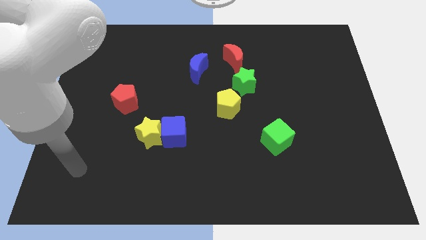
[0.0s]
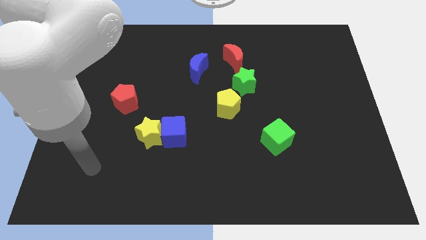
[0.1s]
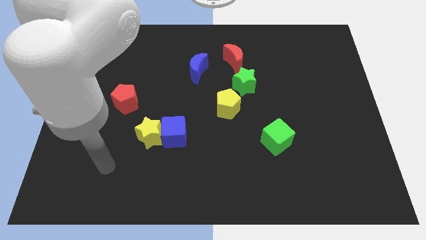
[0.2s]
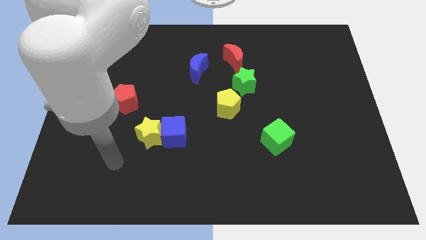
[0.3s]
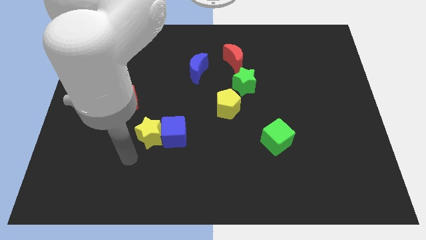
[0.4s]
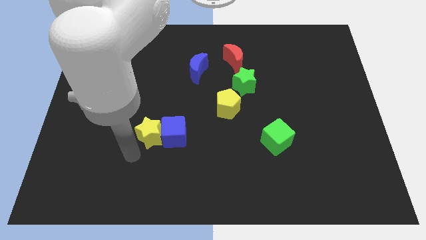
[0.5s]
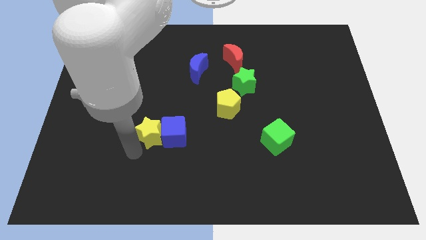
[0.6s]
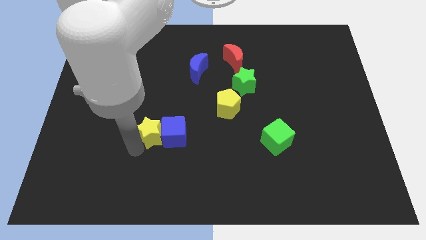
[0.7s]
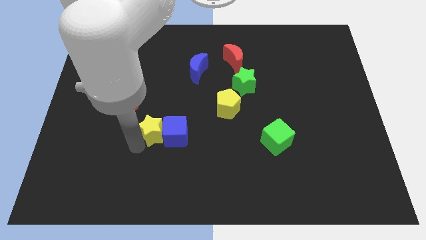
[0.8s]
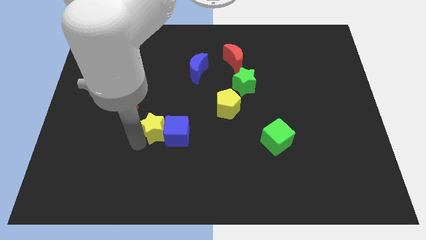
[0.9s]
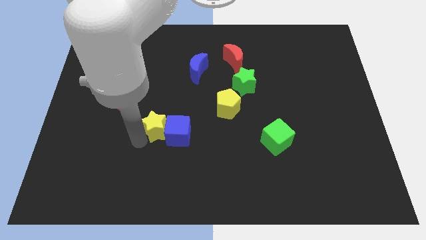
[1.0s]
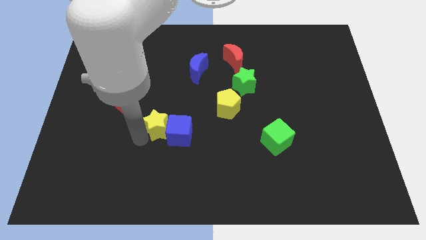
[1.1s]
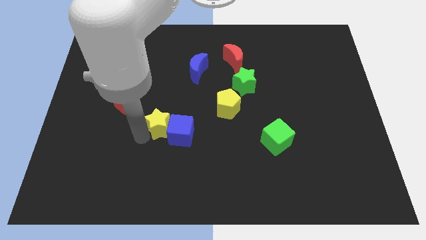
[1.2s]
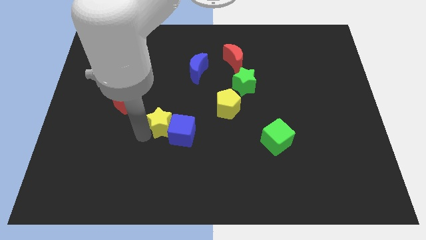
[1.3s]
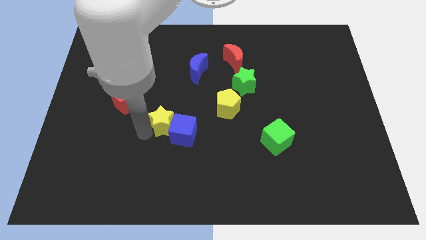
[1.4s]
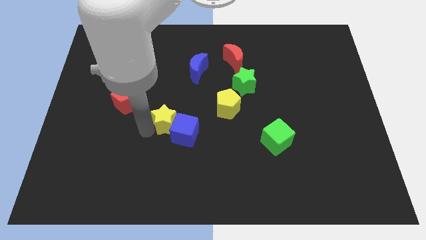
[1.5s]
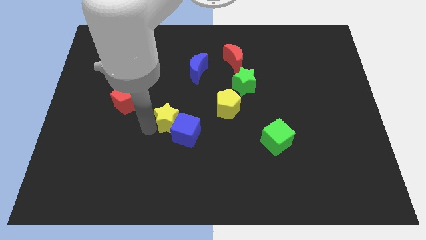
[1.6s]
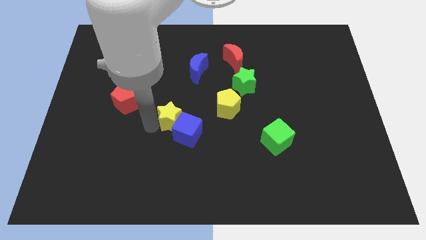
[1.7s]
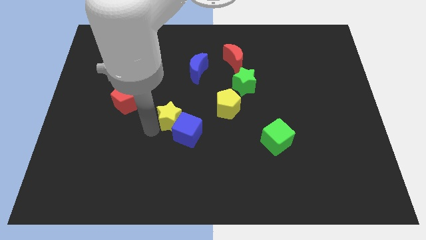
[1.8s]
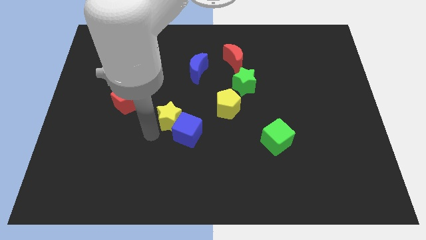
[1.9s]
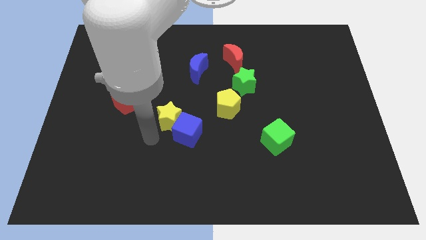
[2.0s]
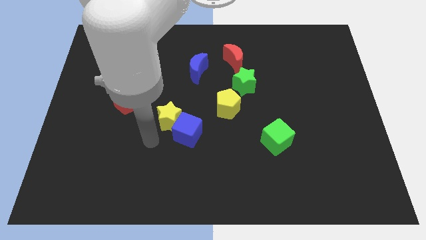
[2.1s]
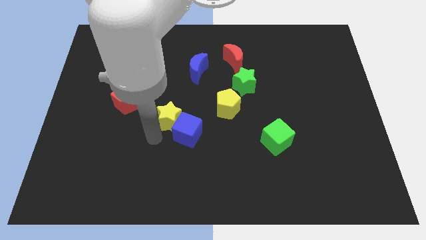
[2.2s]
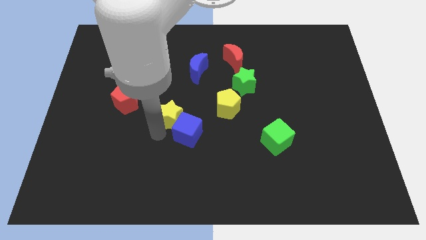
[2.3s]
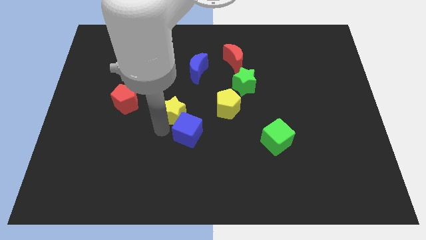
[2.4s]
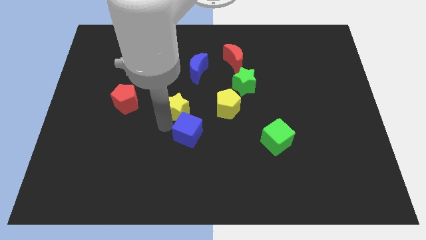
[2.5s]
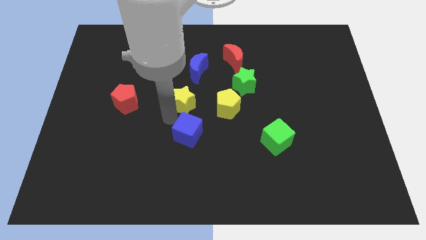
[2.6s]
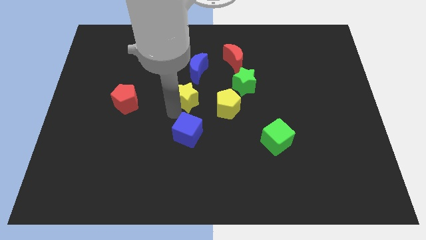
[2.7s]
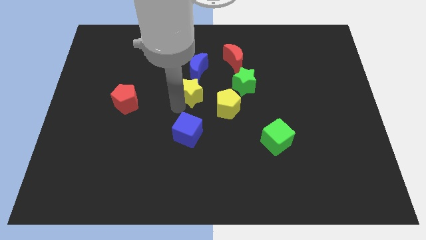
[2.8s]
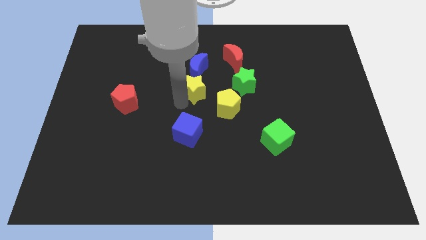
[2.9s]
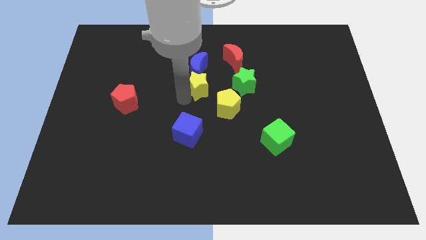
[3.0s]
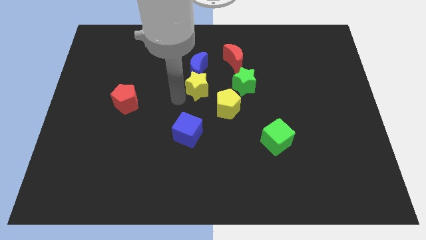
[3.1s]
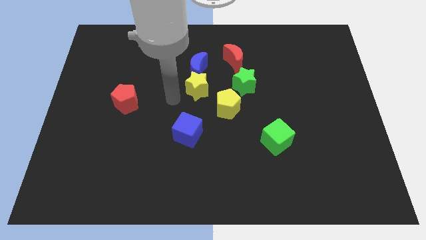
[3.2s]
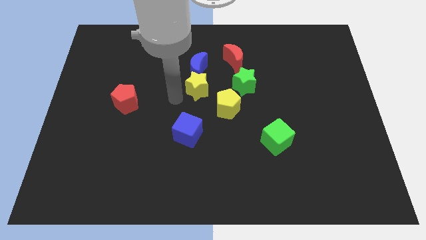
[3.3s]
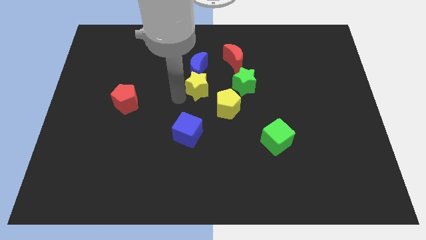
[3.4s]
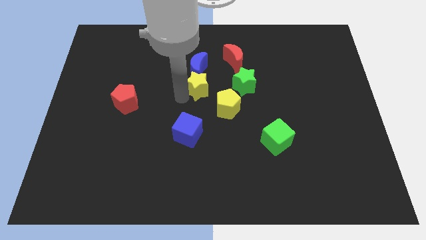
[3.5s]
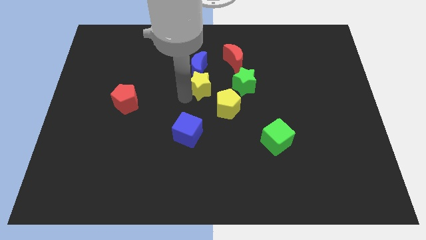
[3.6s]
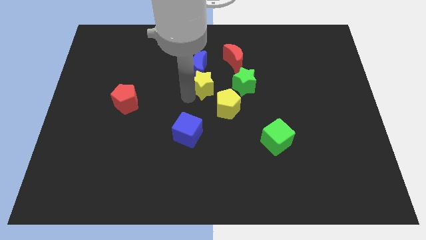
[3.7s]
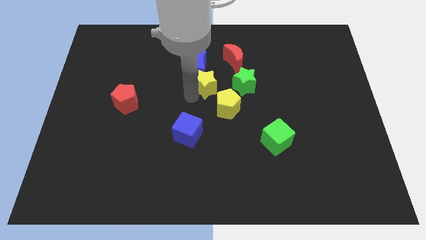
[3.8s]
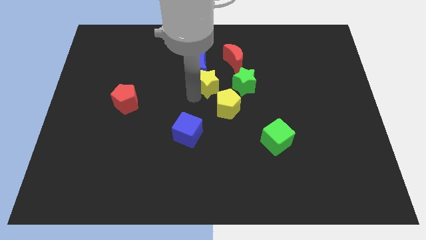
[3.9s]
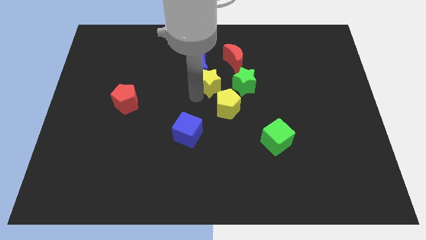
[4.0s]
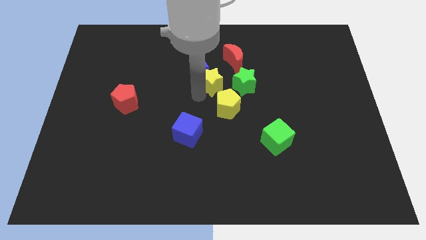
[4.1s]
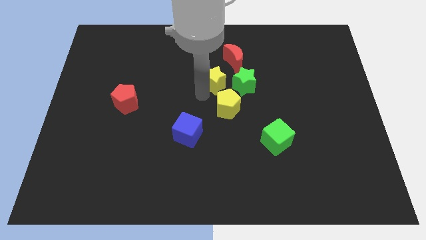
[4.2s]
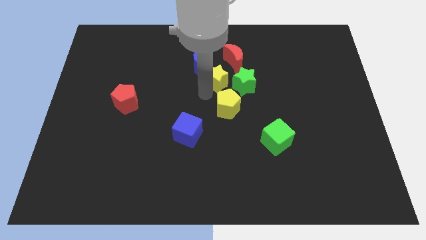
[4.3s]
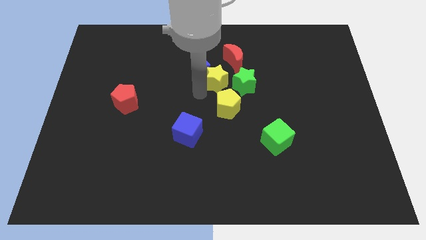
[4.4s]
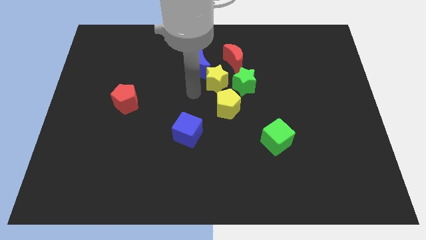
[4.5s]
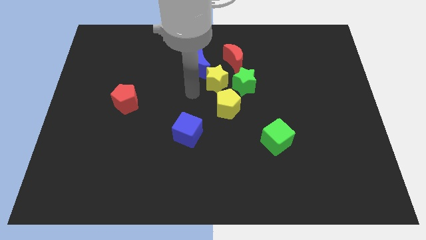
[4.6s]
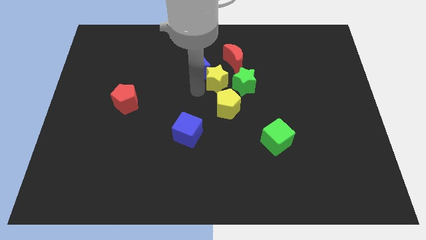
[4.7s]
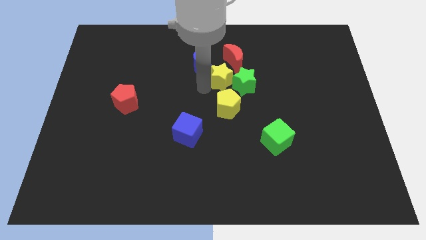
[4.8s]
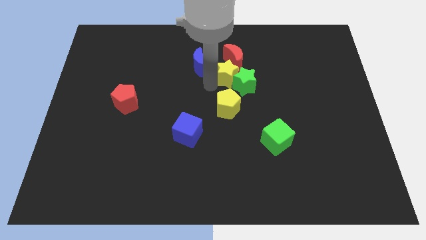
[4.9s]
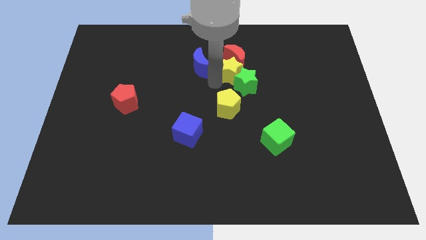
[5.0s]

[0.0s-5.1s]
move the yellow star to the bottom right of the red moon

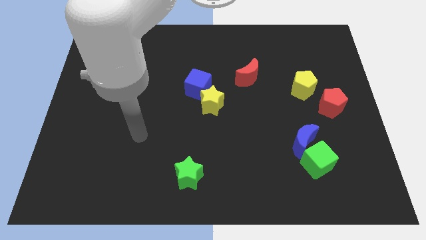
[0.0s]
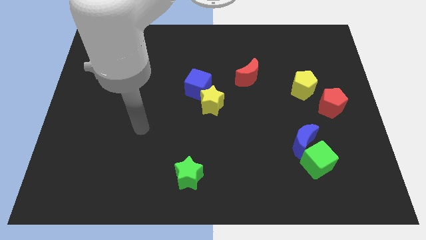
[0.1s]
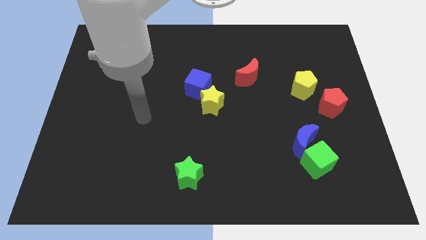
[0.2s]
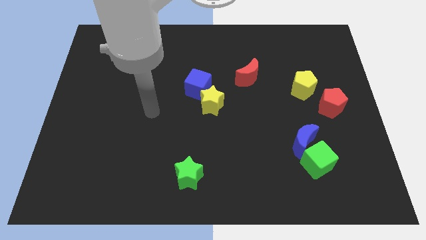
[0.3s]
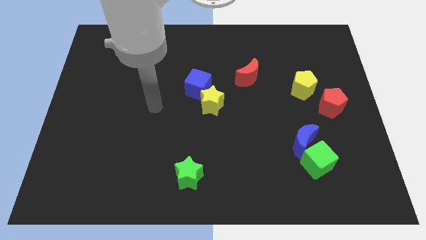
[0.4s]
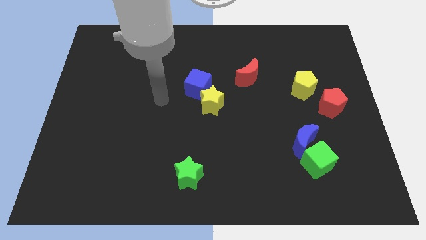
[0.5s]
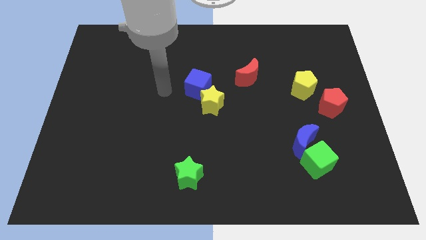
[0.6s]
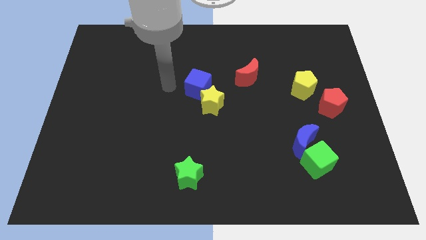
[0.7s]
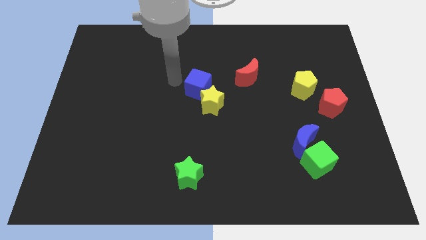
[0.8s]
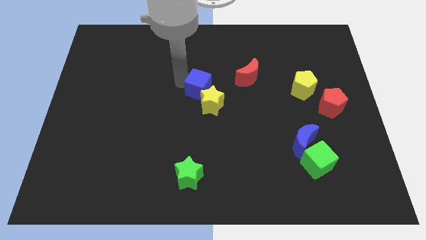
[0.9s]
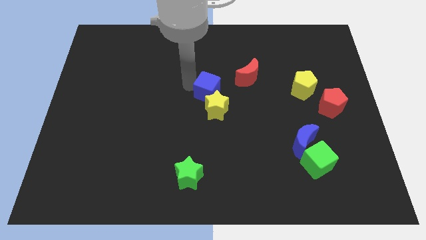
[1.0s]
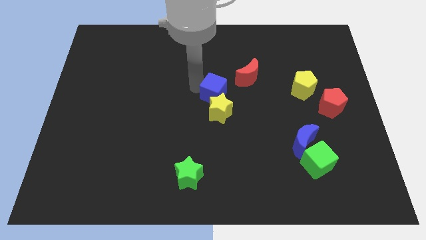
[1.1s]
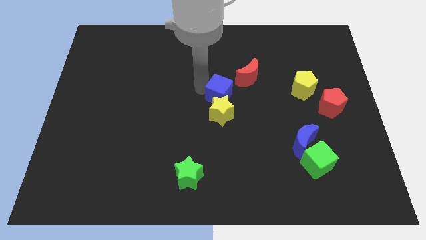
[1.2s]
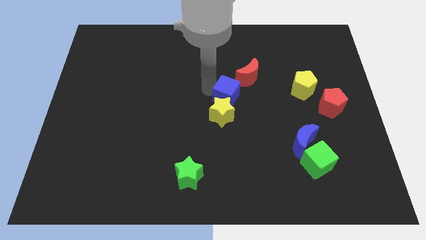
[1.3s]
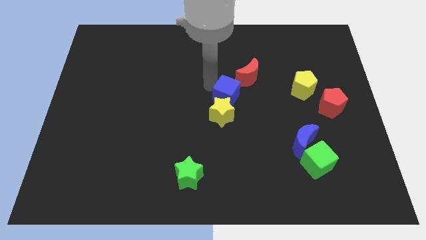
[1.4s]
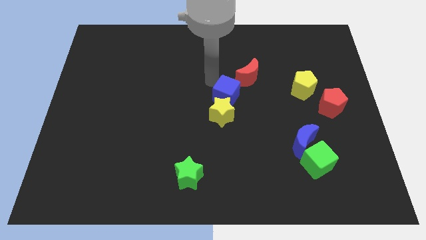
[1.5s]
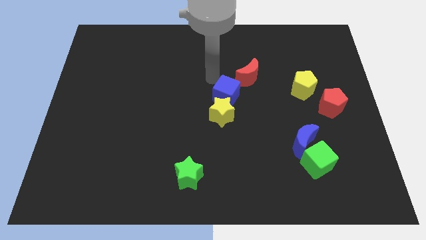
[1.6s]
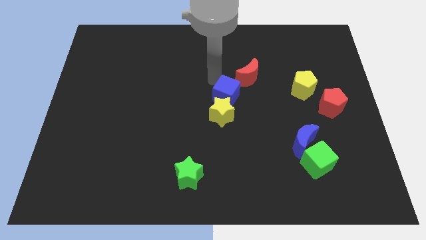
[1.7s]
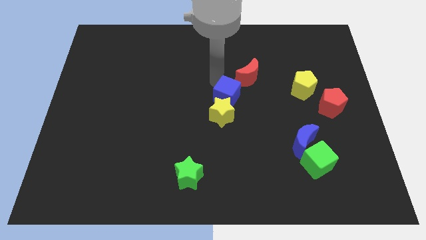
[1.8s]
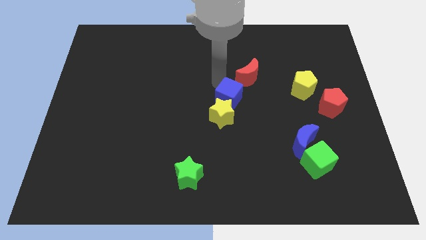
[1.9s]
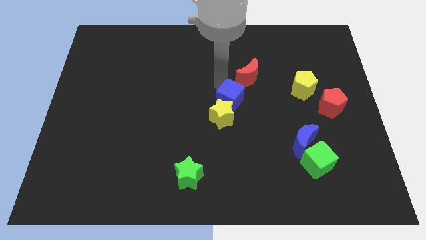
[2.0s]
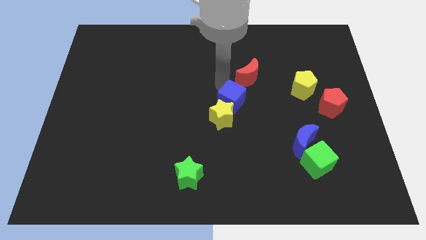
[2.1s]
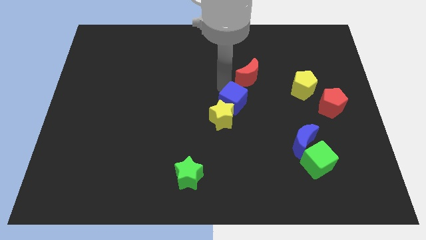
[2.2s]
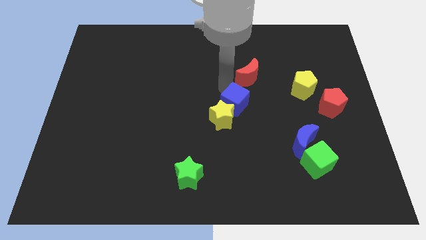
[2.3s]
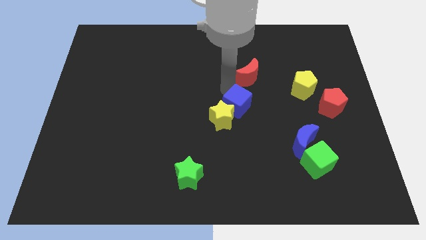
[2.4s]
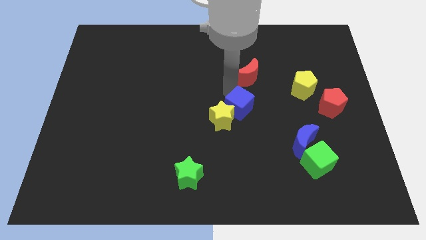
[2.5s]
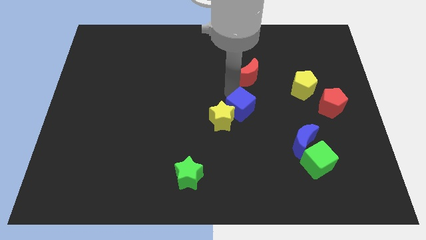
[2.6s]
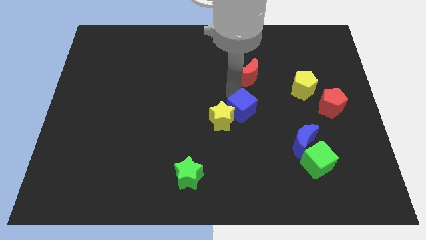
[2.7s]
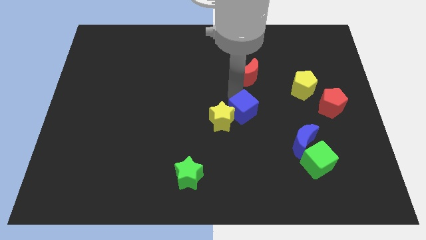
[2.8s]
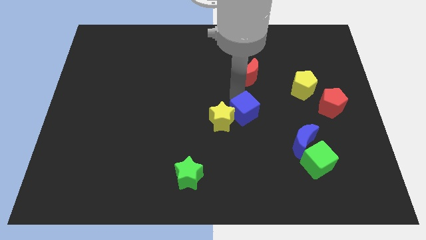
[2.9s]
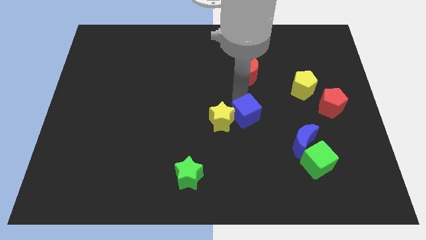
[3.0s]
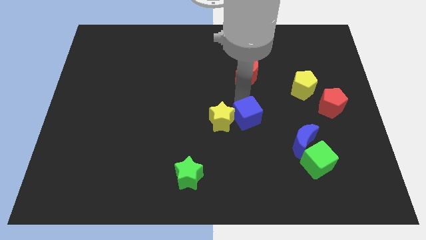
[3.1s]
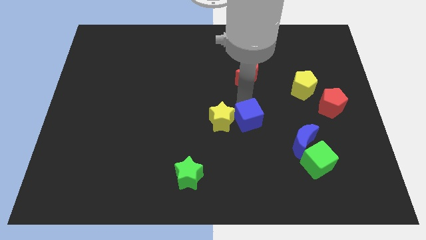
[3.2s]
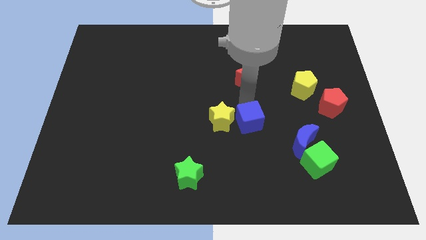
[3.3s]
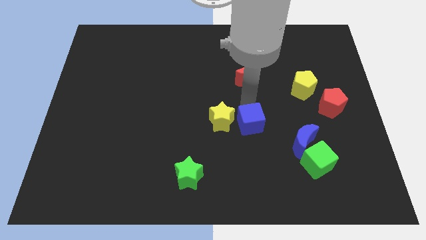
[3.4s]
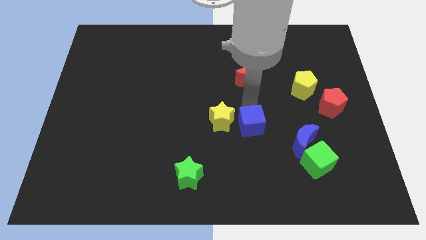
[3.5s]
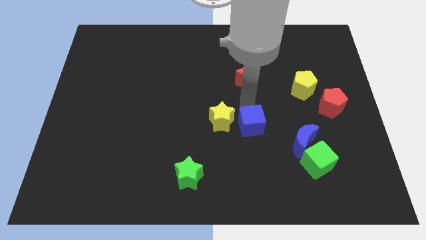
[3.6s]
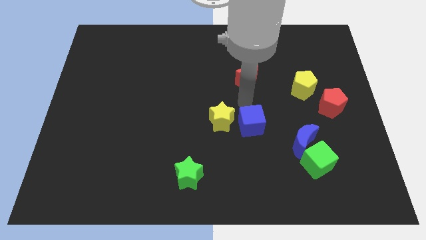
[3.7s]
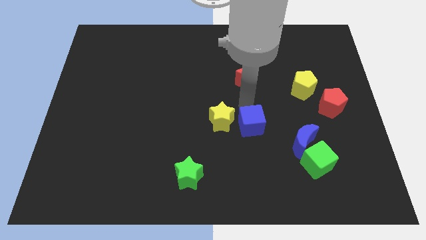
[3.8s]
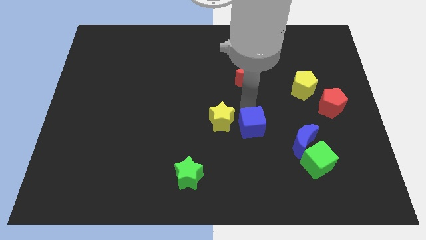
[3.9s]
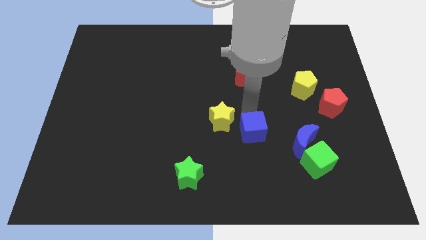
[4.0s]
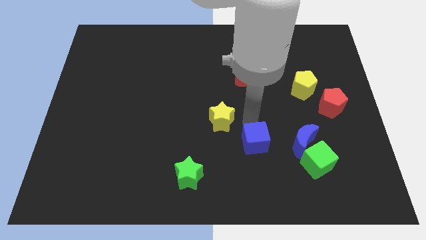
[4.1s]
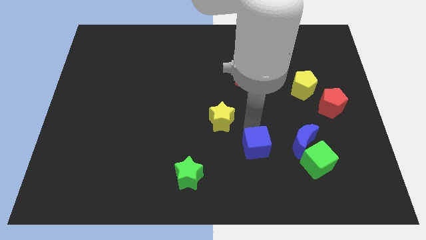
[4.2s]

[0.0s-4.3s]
push the blue cube to the left side of the green cube
